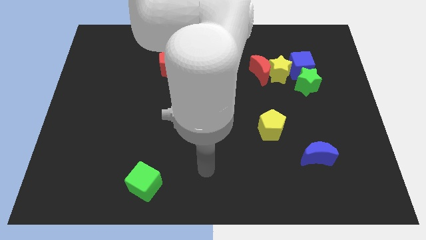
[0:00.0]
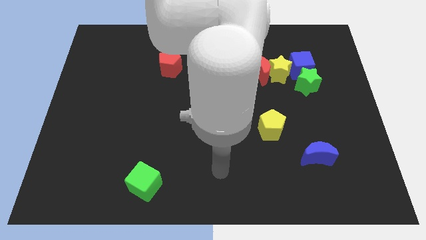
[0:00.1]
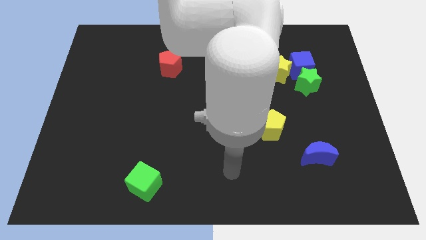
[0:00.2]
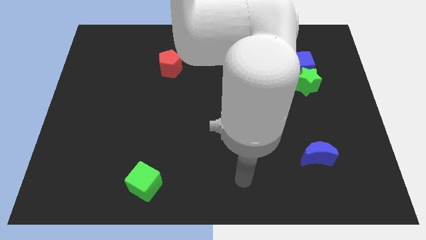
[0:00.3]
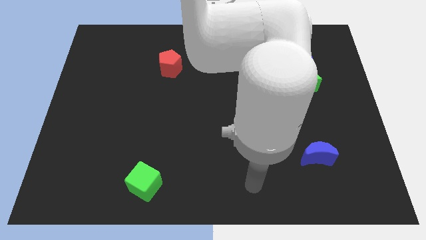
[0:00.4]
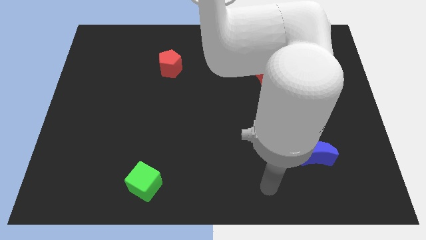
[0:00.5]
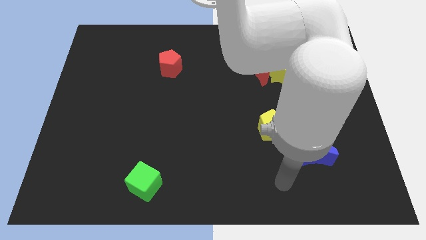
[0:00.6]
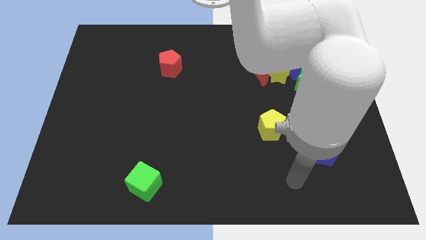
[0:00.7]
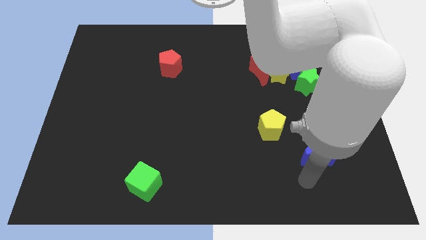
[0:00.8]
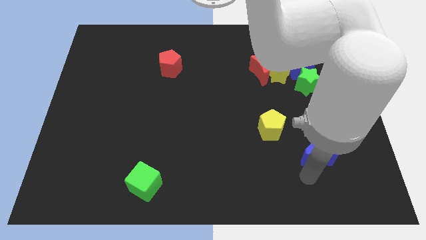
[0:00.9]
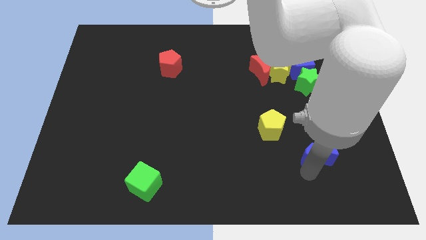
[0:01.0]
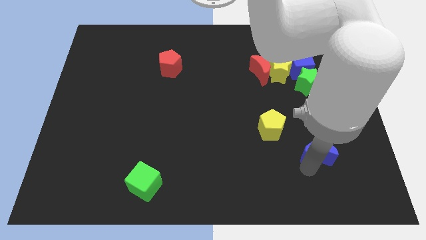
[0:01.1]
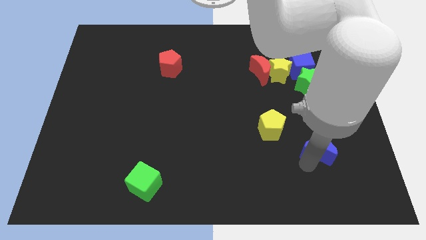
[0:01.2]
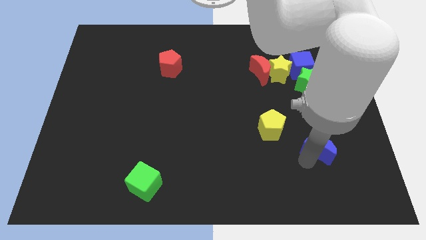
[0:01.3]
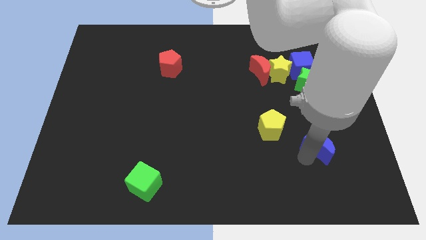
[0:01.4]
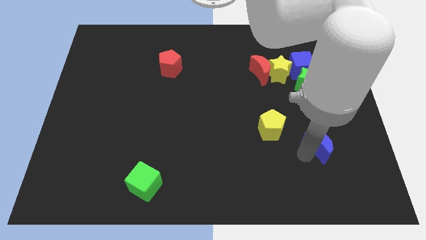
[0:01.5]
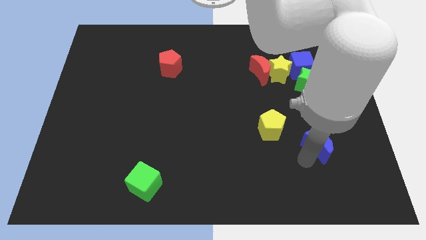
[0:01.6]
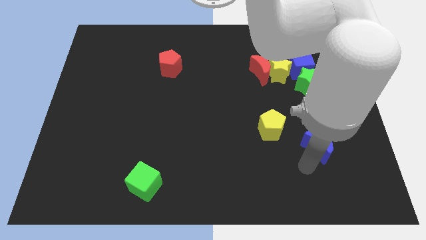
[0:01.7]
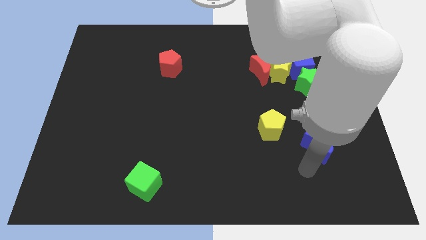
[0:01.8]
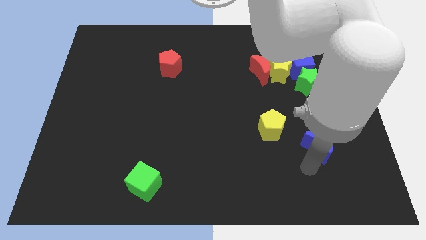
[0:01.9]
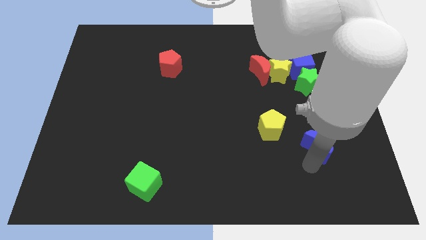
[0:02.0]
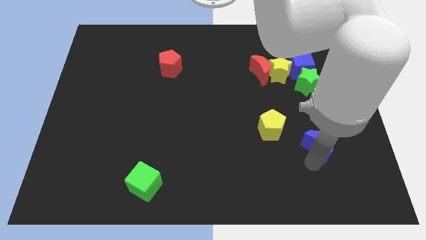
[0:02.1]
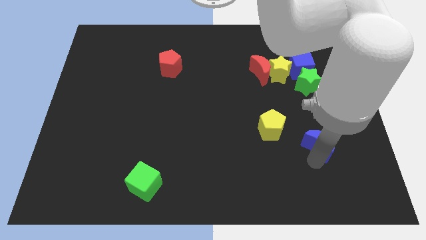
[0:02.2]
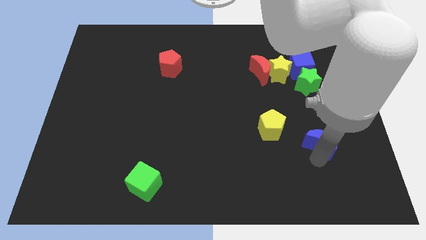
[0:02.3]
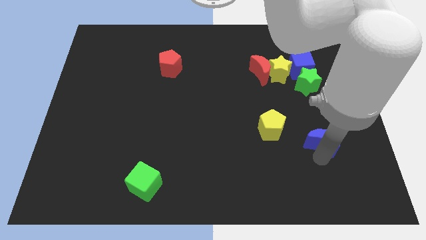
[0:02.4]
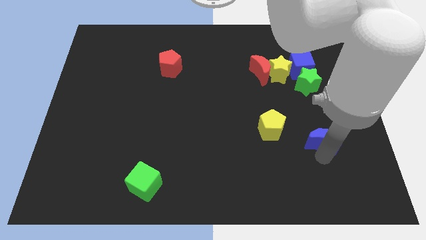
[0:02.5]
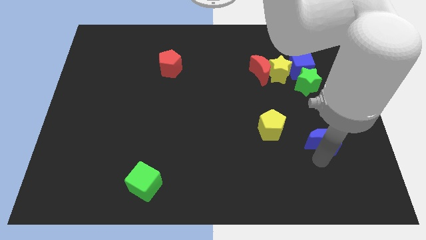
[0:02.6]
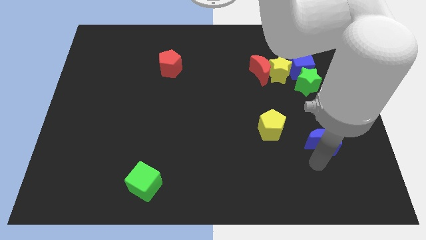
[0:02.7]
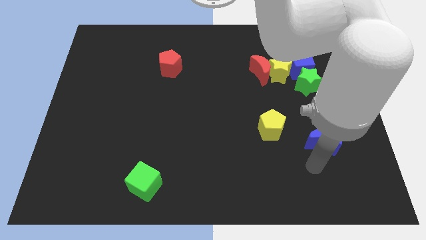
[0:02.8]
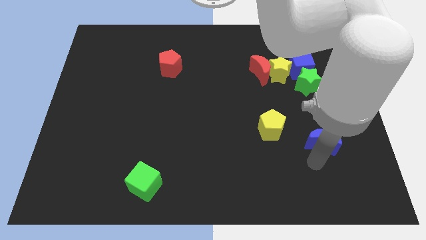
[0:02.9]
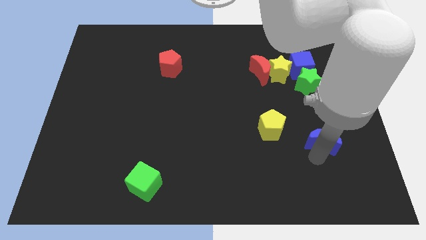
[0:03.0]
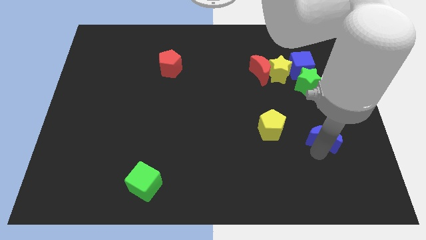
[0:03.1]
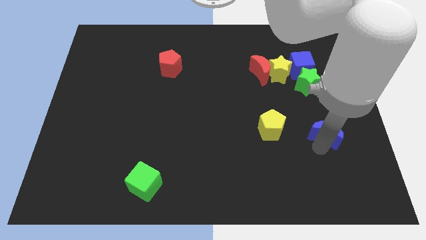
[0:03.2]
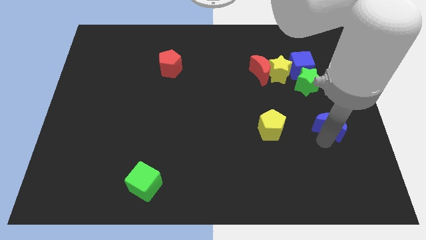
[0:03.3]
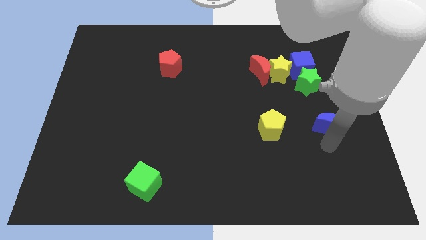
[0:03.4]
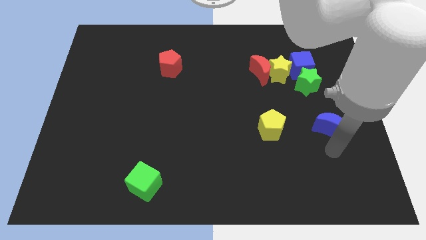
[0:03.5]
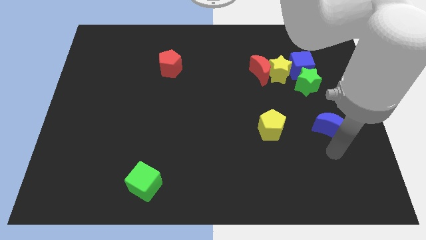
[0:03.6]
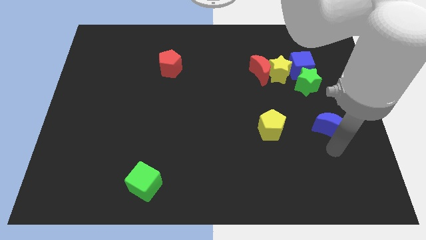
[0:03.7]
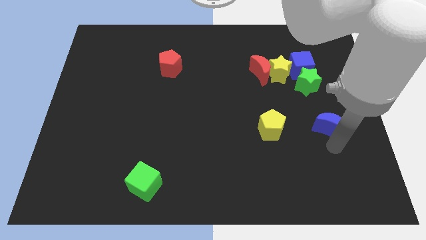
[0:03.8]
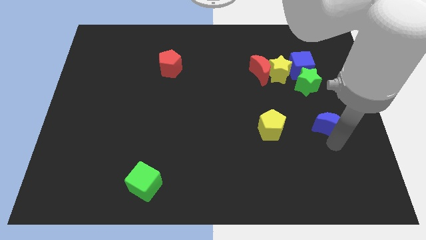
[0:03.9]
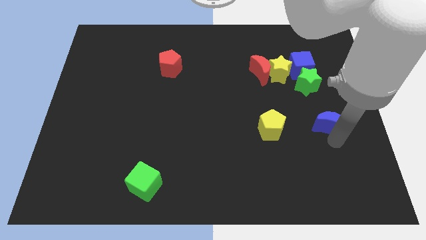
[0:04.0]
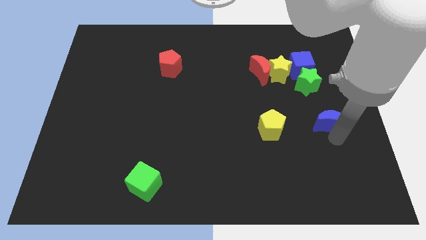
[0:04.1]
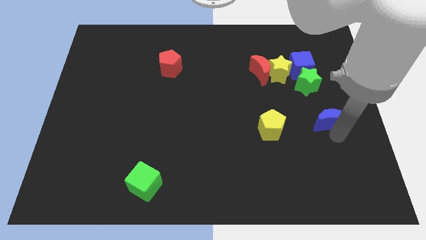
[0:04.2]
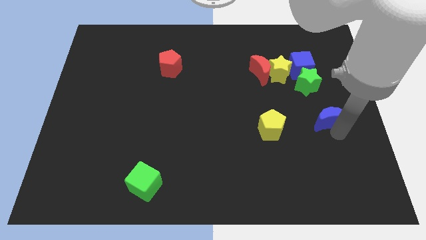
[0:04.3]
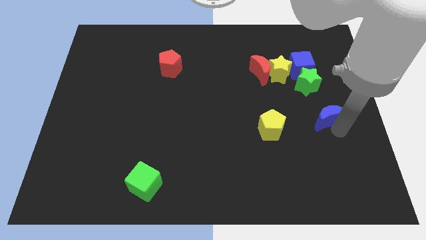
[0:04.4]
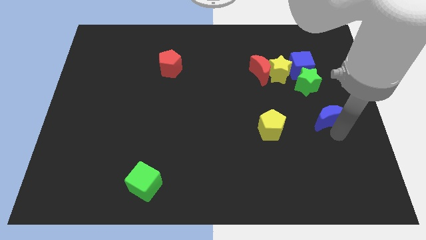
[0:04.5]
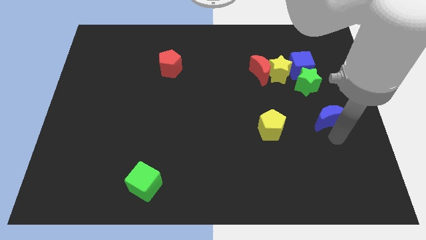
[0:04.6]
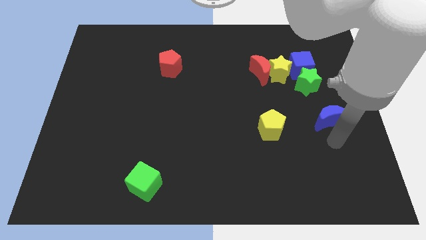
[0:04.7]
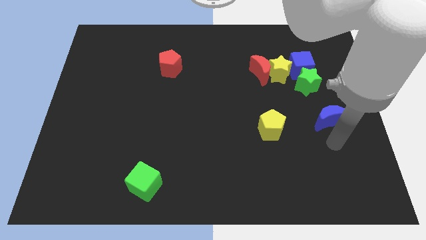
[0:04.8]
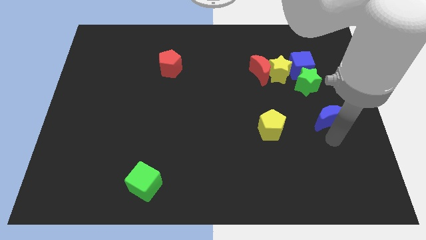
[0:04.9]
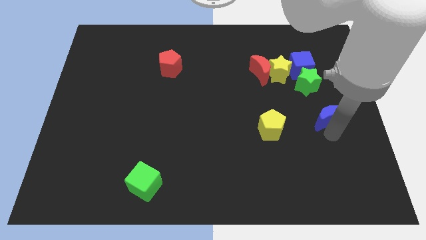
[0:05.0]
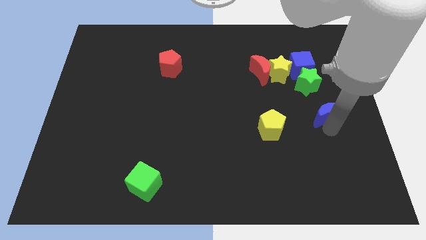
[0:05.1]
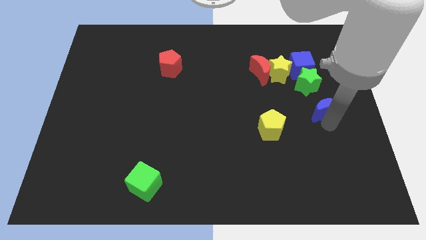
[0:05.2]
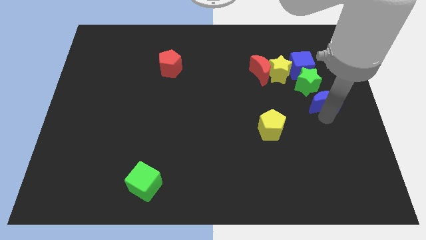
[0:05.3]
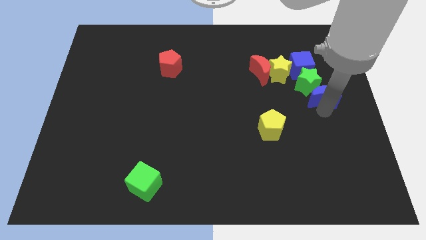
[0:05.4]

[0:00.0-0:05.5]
push the blue moon diagonally down and to the right of the blue cube

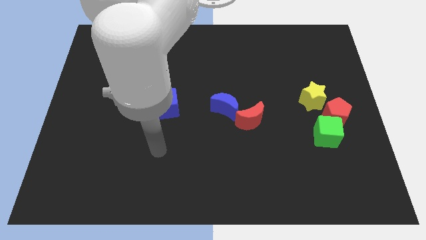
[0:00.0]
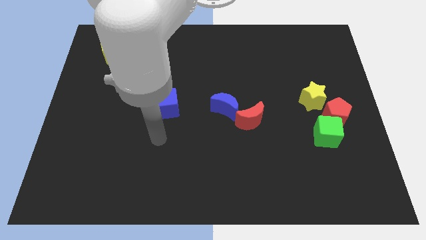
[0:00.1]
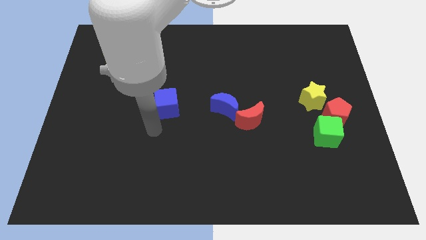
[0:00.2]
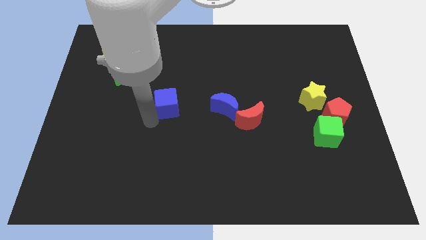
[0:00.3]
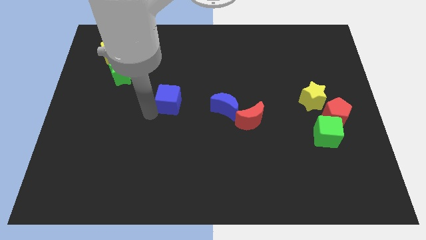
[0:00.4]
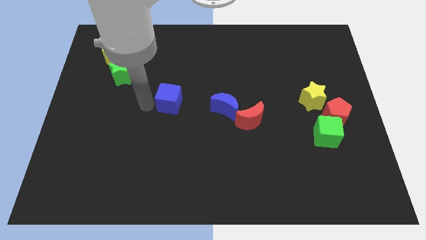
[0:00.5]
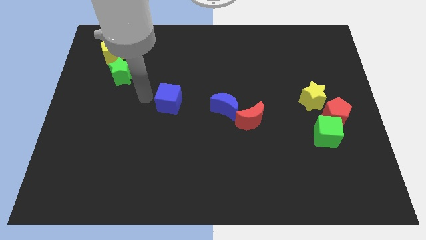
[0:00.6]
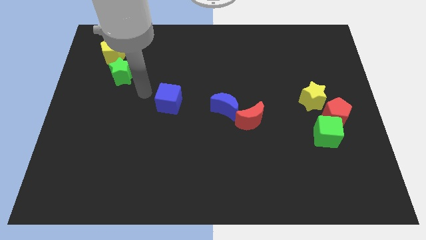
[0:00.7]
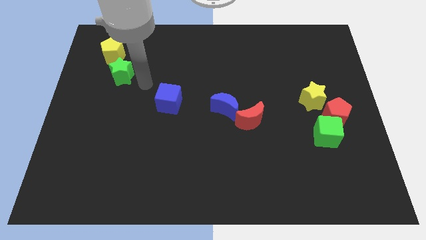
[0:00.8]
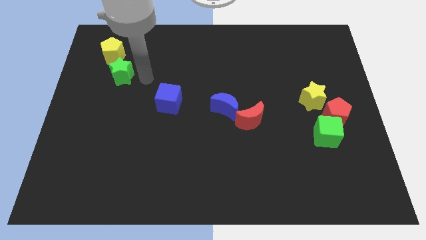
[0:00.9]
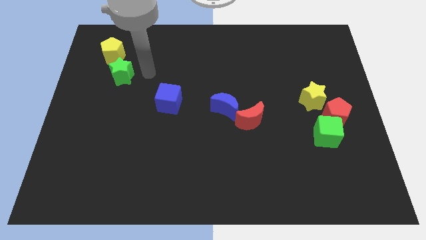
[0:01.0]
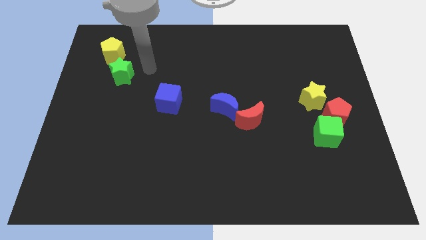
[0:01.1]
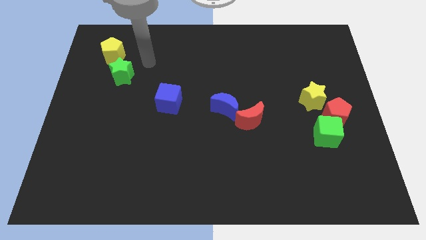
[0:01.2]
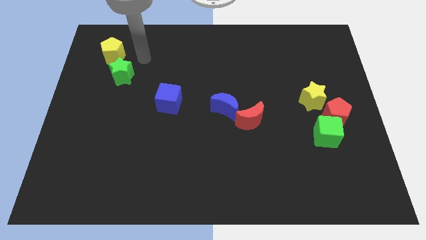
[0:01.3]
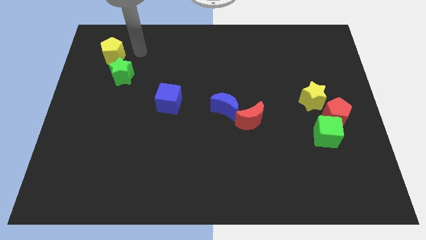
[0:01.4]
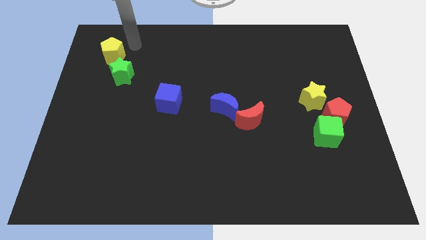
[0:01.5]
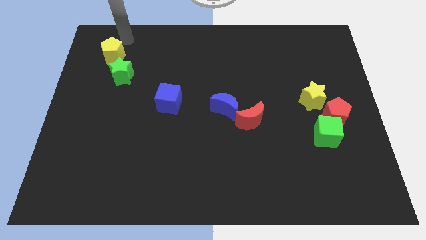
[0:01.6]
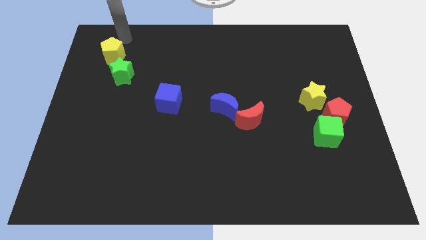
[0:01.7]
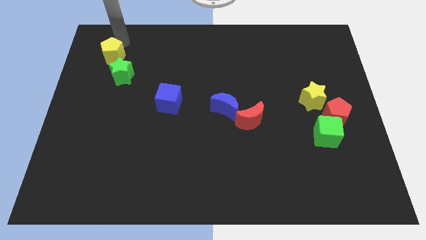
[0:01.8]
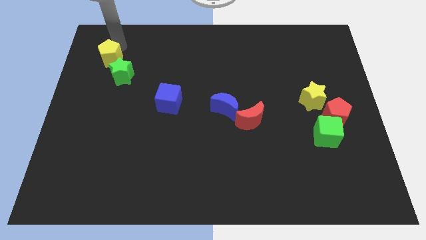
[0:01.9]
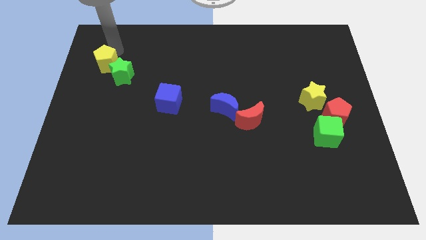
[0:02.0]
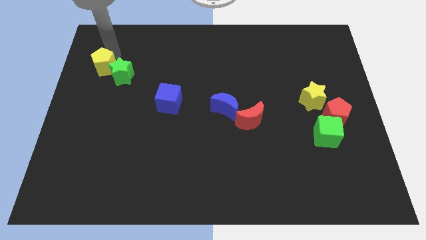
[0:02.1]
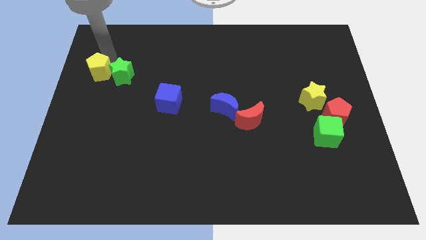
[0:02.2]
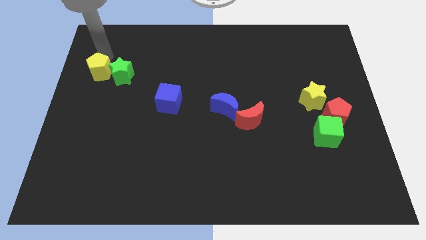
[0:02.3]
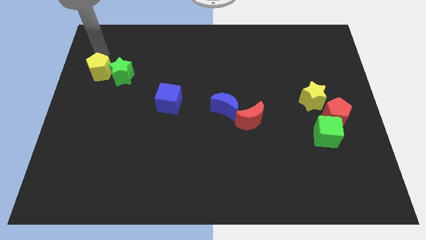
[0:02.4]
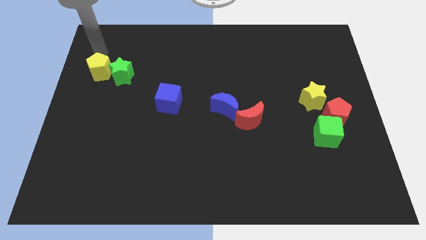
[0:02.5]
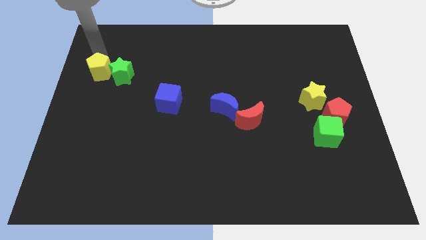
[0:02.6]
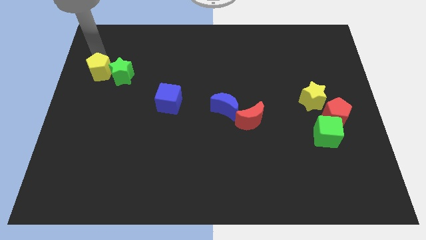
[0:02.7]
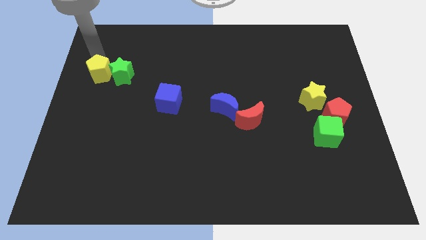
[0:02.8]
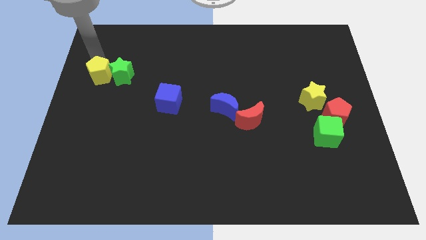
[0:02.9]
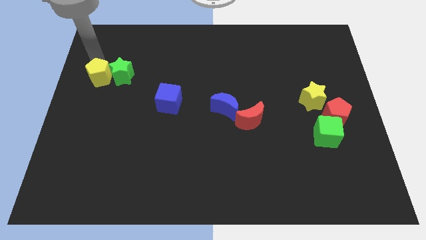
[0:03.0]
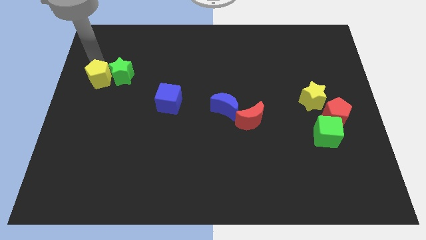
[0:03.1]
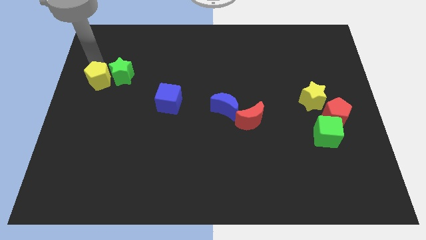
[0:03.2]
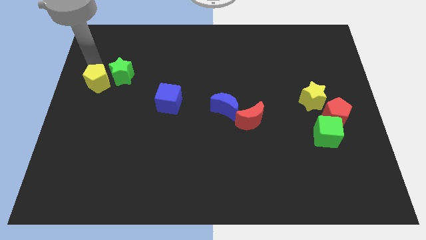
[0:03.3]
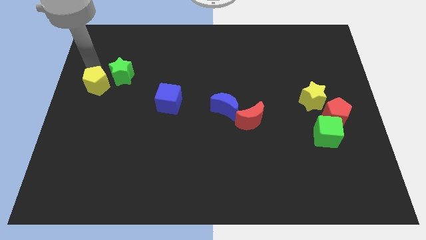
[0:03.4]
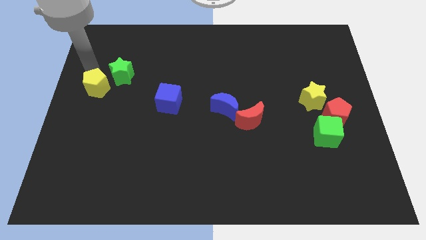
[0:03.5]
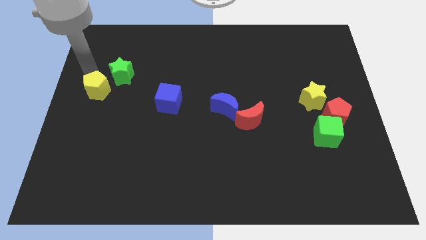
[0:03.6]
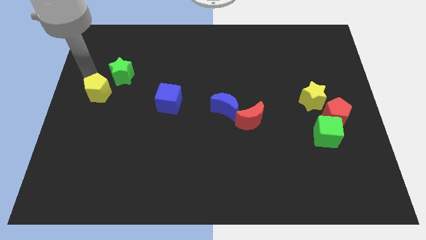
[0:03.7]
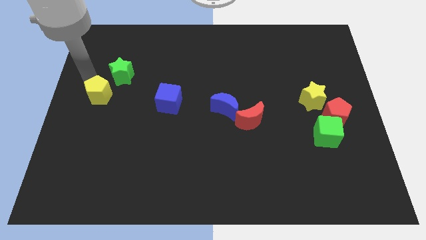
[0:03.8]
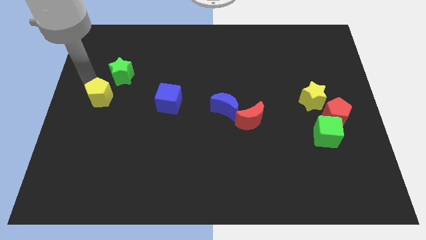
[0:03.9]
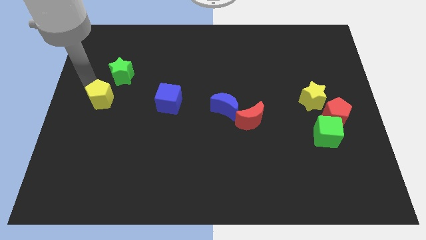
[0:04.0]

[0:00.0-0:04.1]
move the yellow pentagon just left of the blue cube
